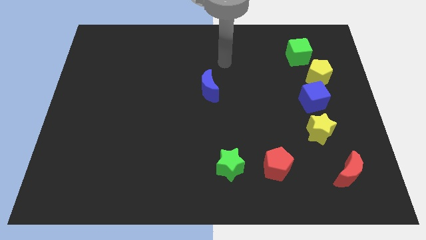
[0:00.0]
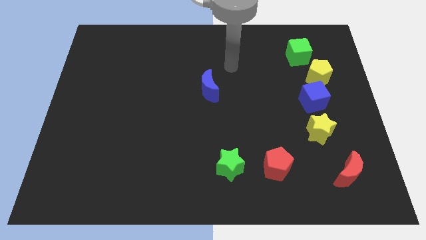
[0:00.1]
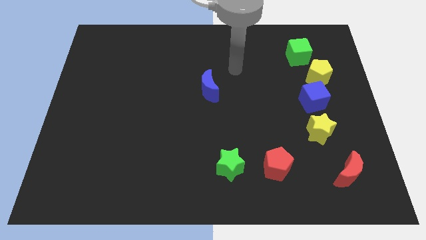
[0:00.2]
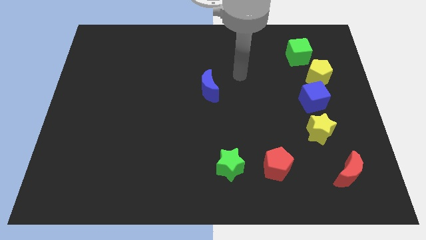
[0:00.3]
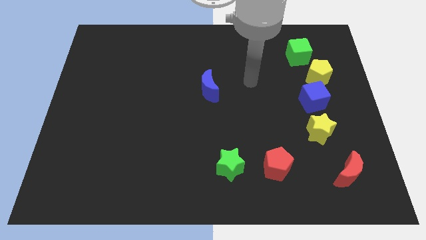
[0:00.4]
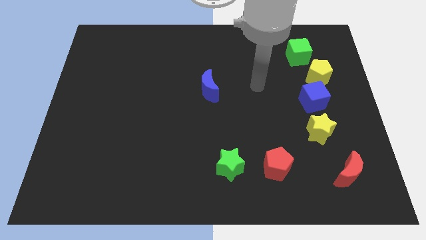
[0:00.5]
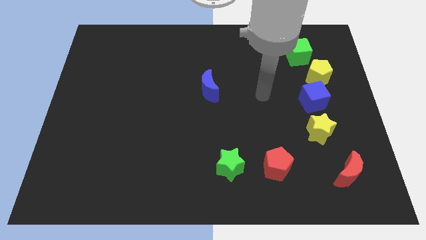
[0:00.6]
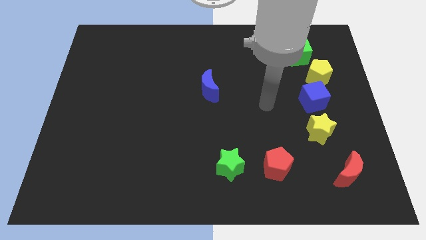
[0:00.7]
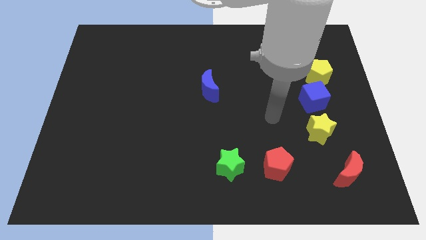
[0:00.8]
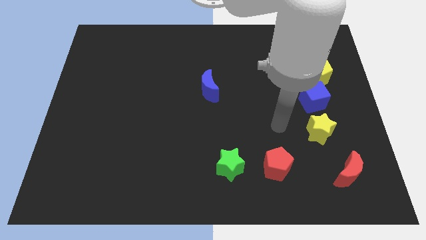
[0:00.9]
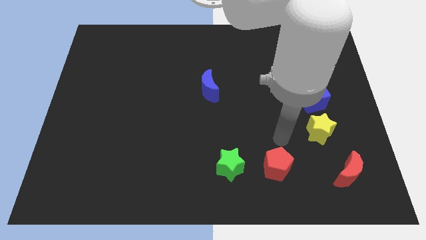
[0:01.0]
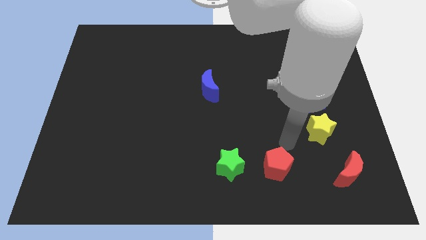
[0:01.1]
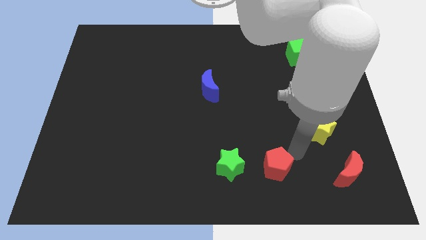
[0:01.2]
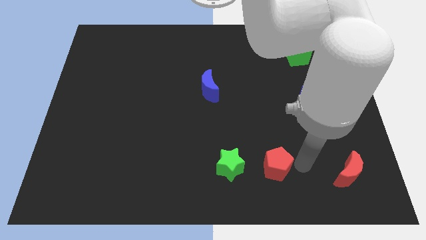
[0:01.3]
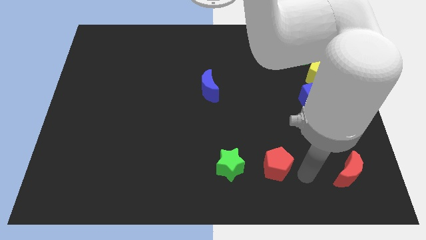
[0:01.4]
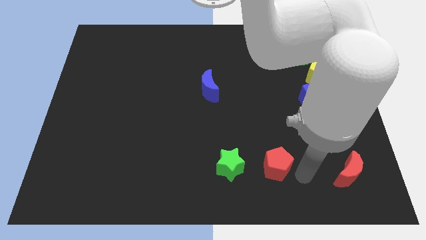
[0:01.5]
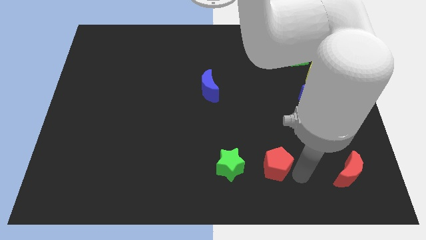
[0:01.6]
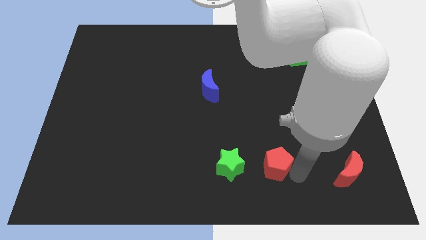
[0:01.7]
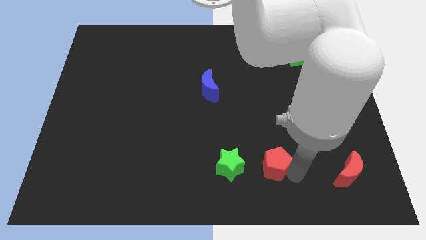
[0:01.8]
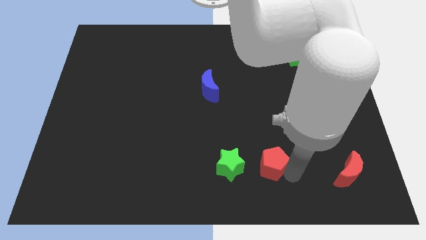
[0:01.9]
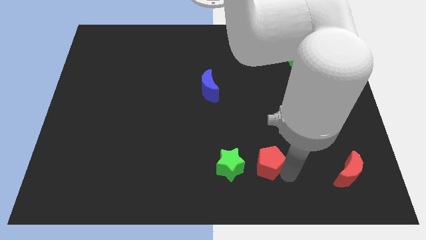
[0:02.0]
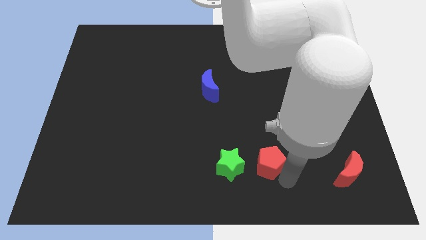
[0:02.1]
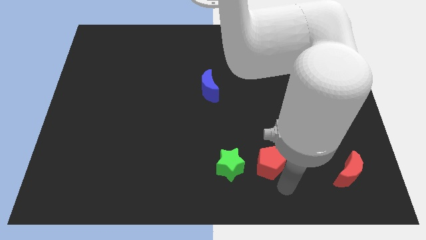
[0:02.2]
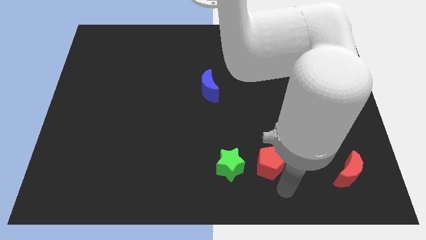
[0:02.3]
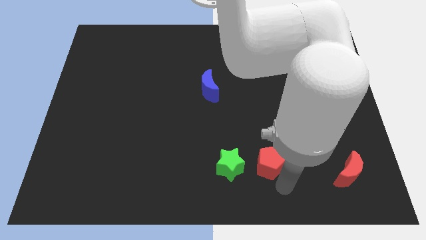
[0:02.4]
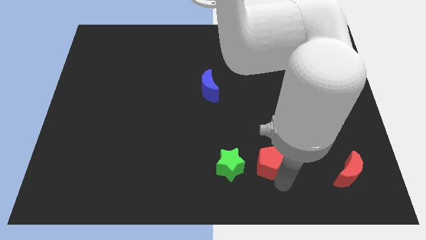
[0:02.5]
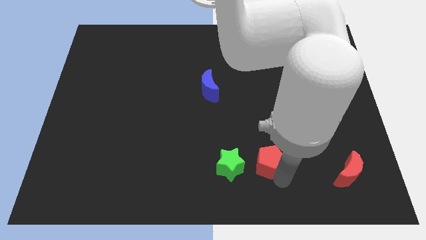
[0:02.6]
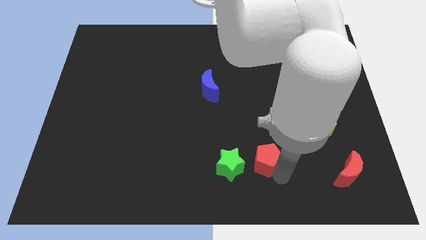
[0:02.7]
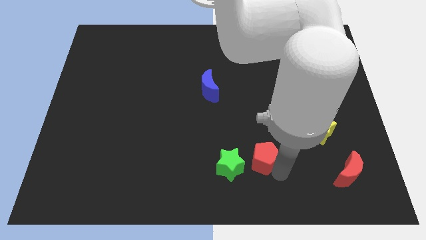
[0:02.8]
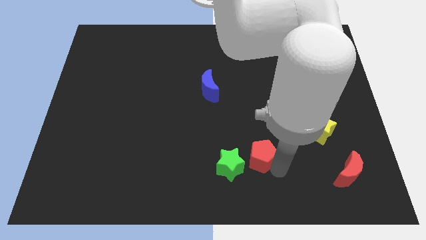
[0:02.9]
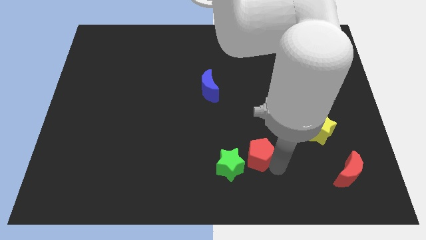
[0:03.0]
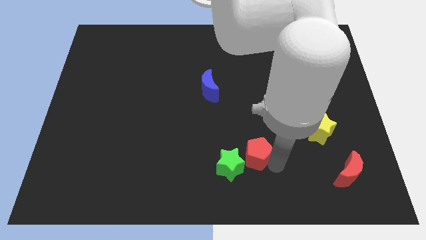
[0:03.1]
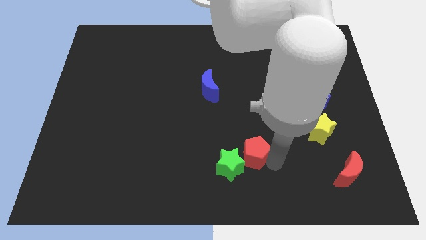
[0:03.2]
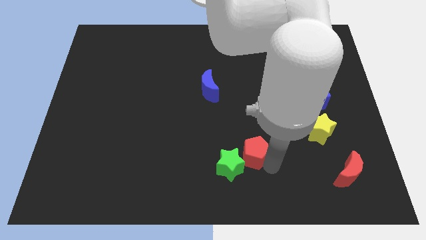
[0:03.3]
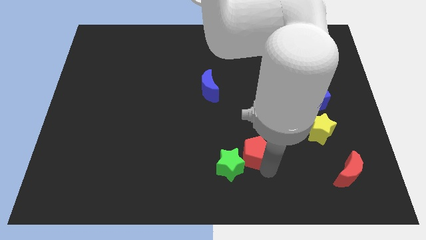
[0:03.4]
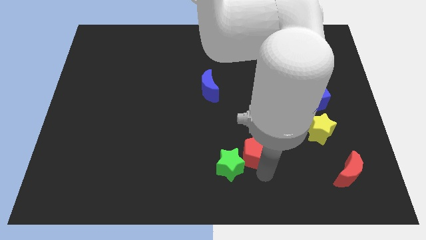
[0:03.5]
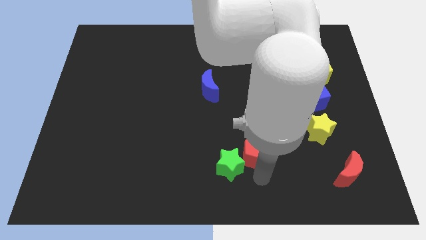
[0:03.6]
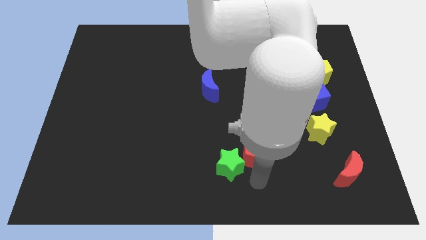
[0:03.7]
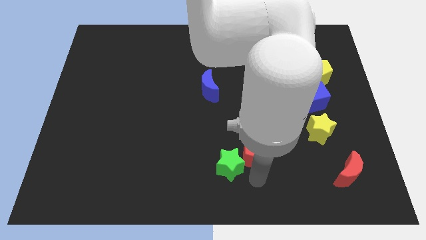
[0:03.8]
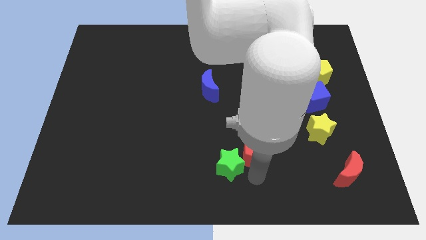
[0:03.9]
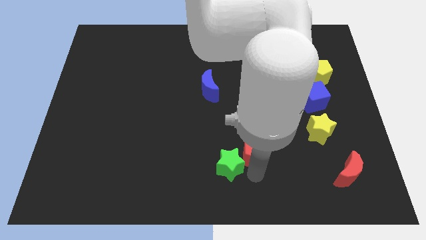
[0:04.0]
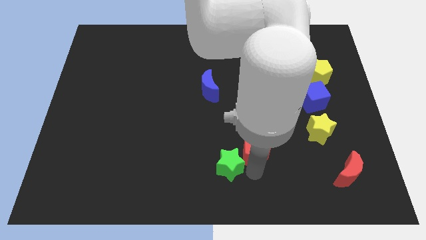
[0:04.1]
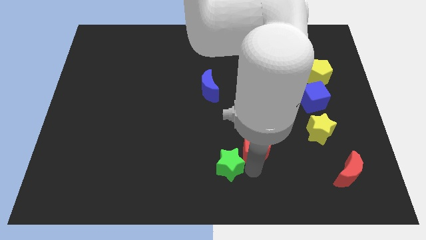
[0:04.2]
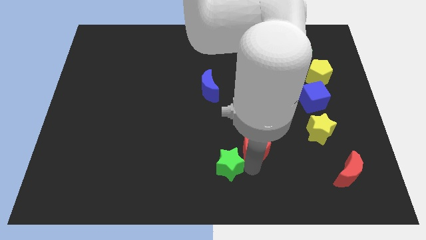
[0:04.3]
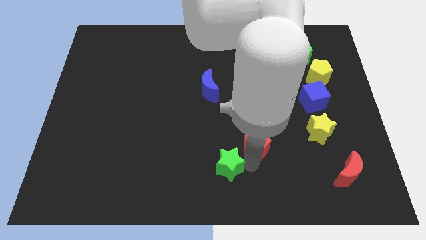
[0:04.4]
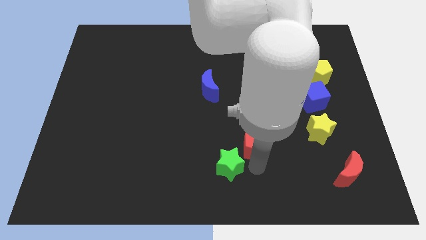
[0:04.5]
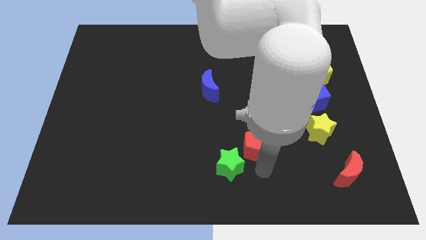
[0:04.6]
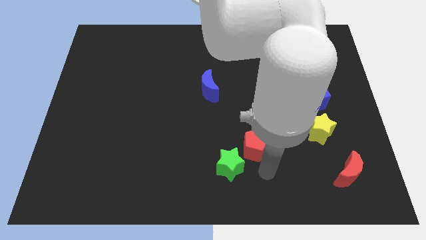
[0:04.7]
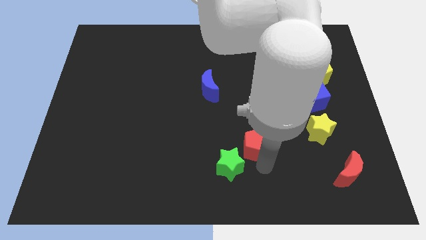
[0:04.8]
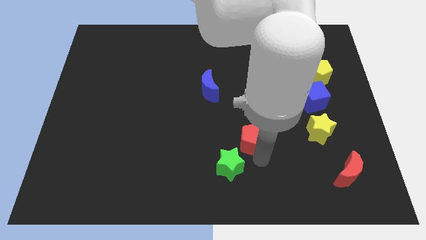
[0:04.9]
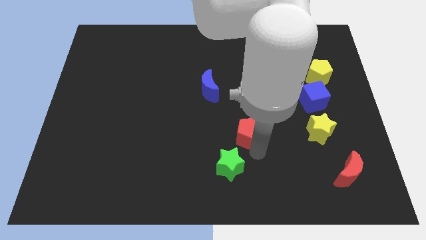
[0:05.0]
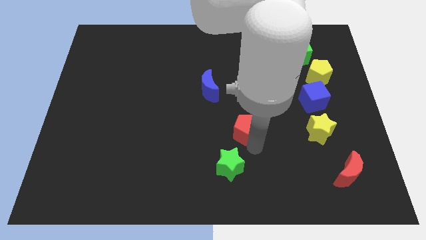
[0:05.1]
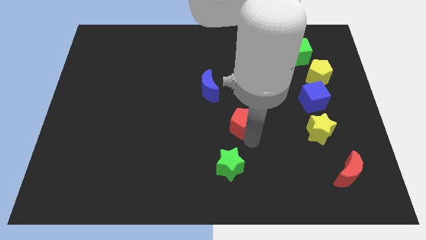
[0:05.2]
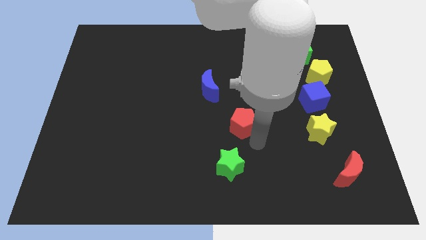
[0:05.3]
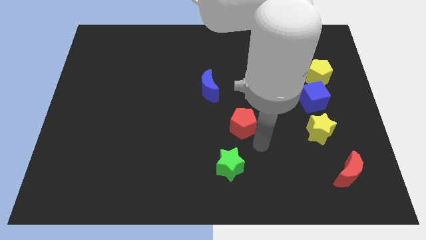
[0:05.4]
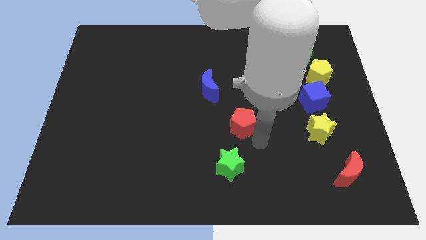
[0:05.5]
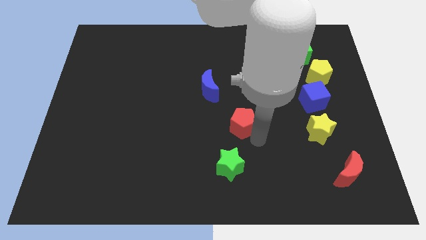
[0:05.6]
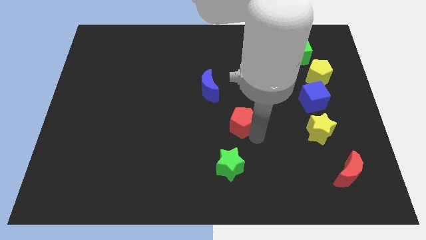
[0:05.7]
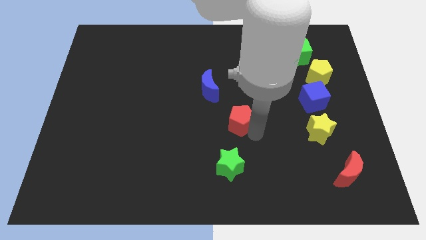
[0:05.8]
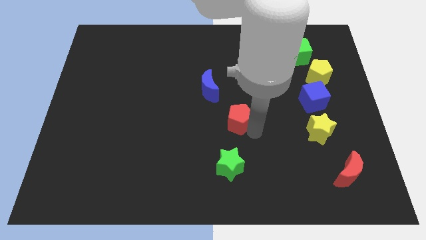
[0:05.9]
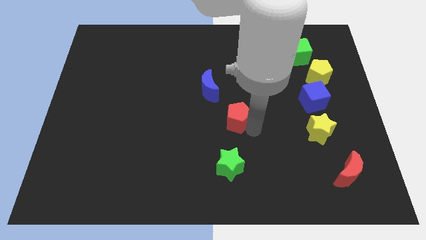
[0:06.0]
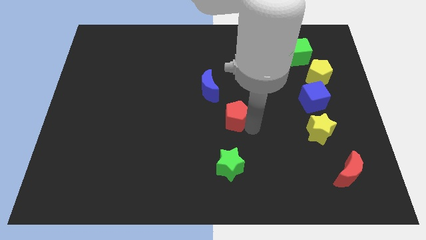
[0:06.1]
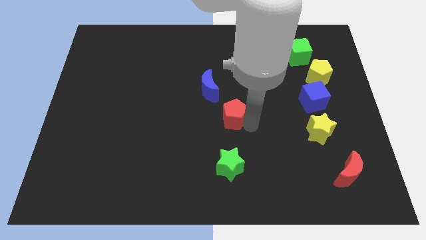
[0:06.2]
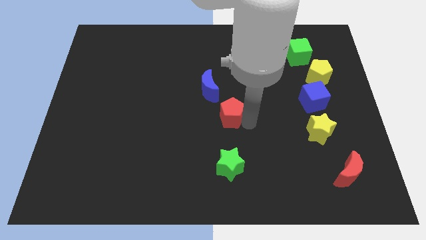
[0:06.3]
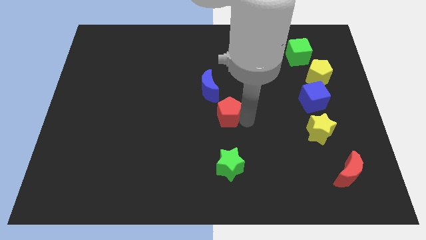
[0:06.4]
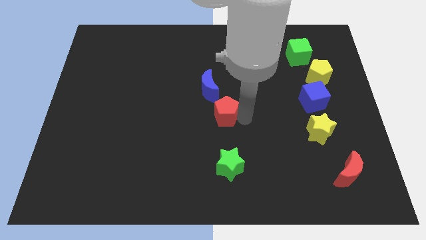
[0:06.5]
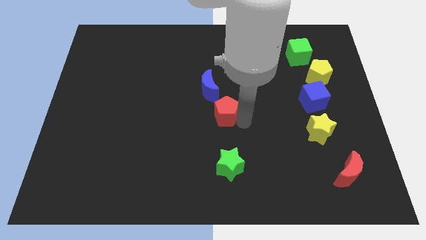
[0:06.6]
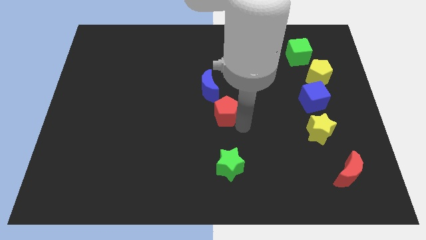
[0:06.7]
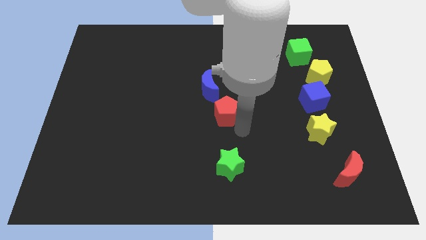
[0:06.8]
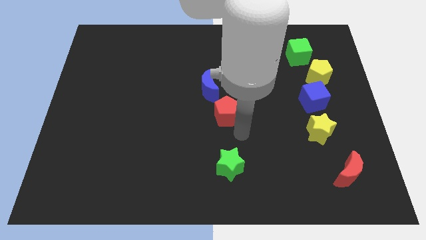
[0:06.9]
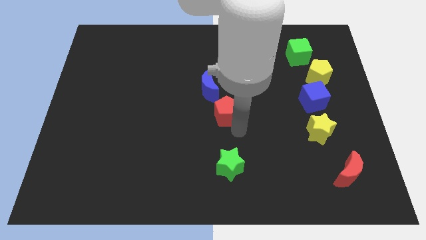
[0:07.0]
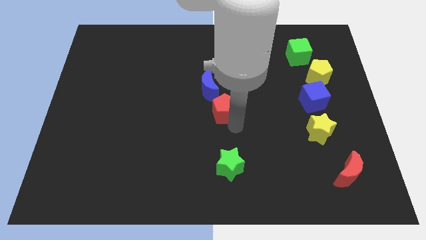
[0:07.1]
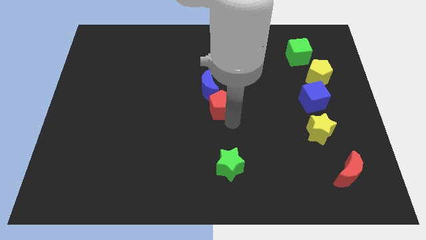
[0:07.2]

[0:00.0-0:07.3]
slide the red pentagon next to the blue moon
